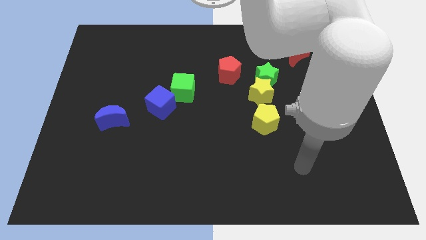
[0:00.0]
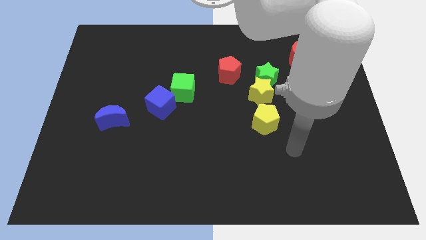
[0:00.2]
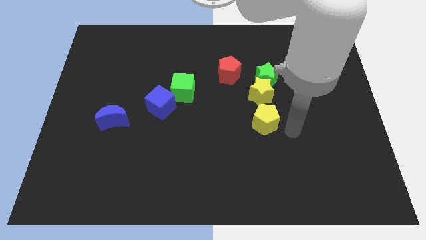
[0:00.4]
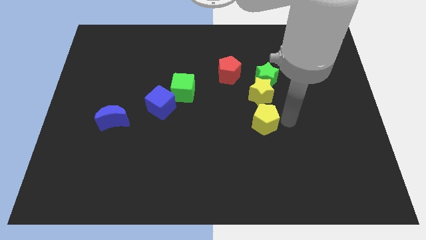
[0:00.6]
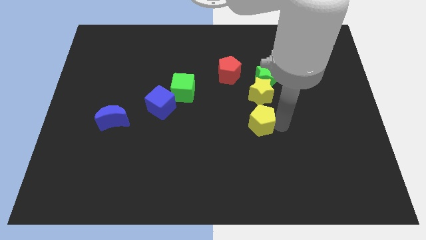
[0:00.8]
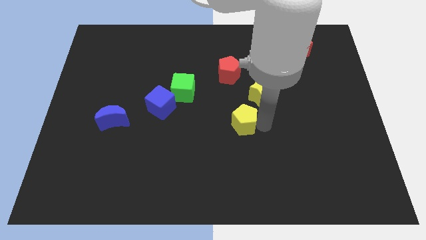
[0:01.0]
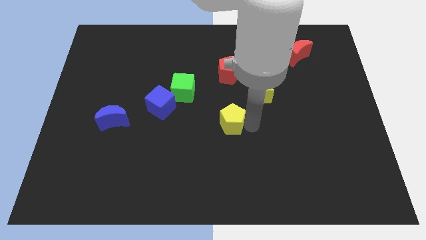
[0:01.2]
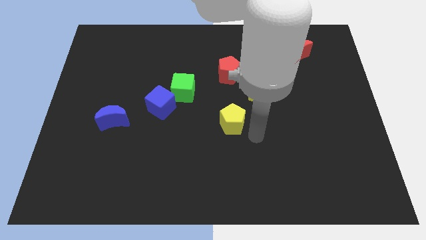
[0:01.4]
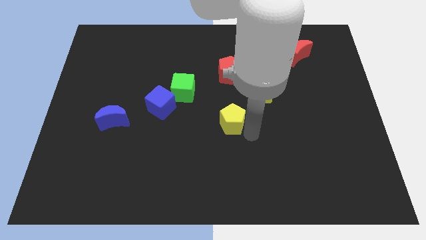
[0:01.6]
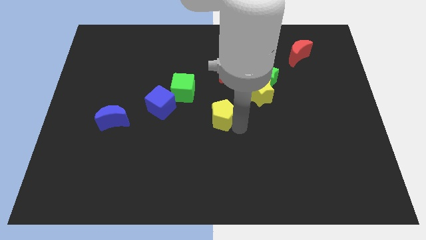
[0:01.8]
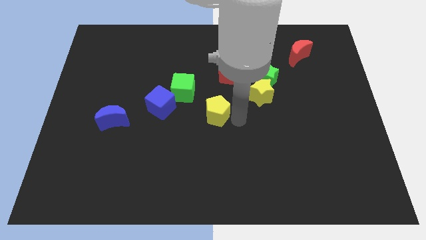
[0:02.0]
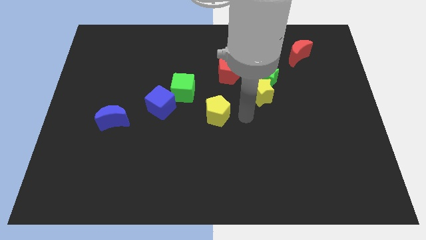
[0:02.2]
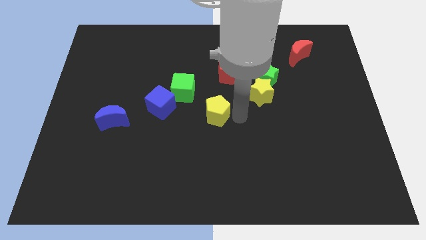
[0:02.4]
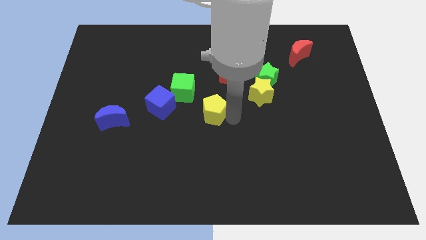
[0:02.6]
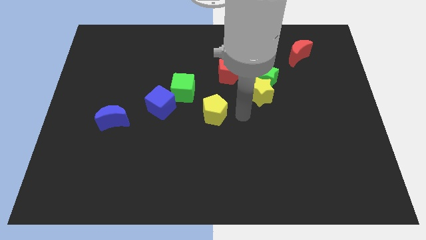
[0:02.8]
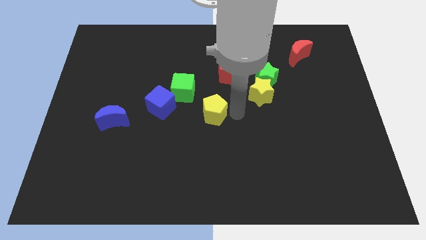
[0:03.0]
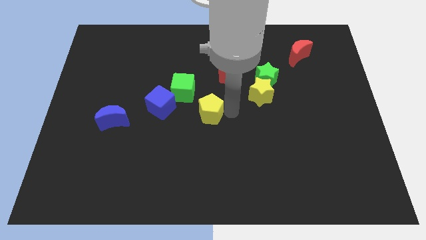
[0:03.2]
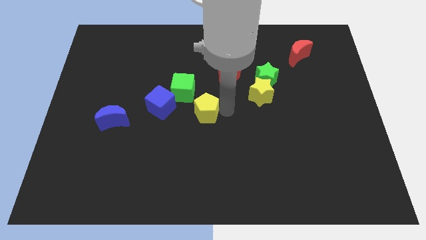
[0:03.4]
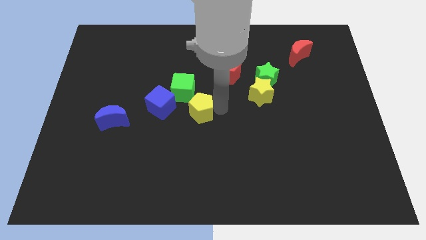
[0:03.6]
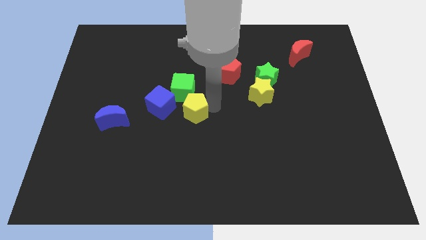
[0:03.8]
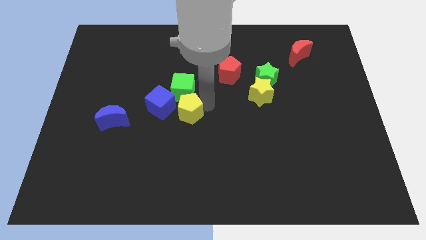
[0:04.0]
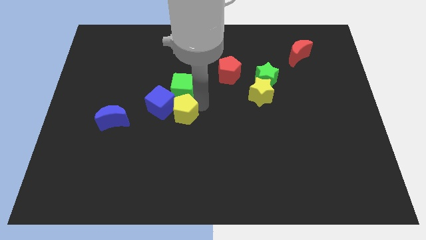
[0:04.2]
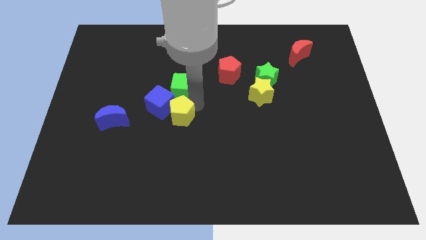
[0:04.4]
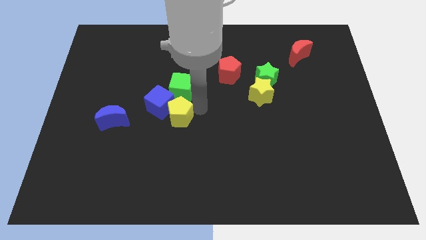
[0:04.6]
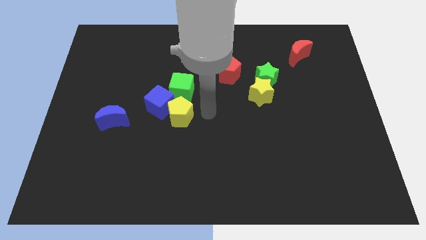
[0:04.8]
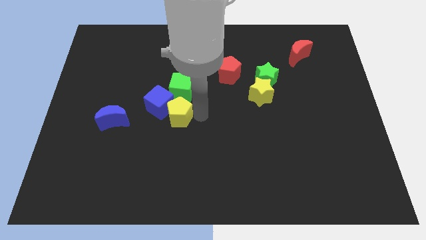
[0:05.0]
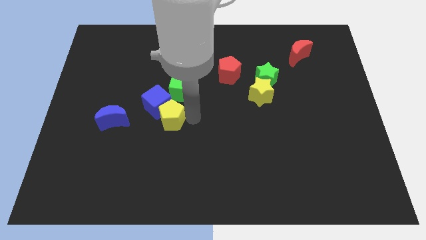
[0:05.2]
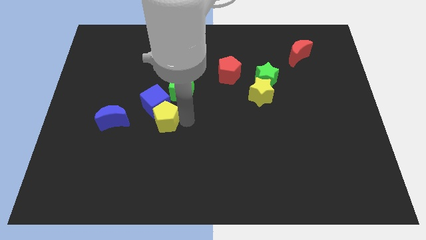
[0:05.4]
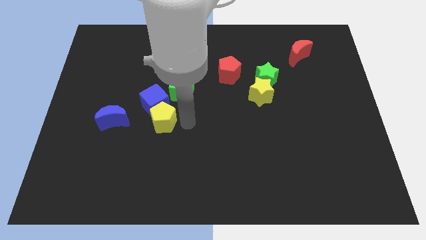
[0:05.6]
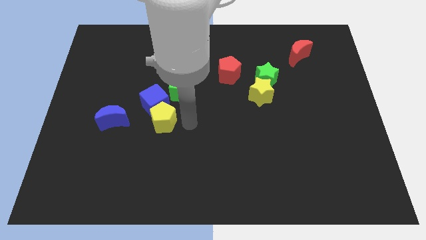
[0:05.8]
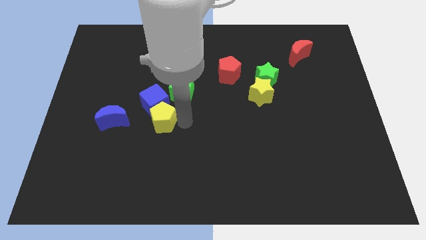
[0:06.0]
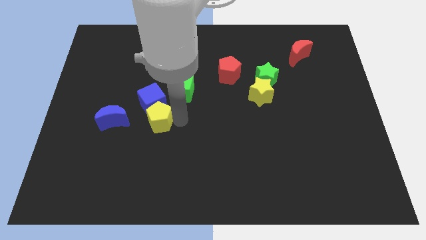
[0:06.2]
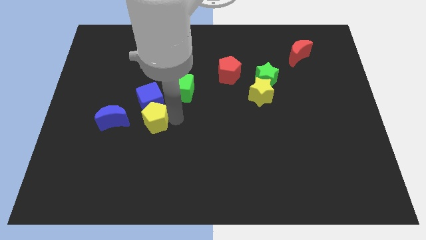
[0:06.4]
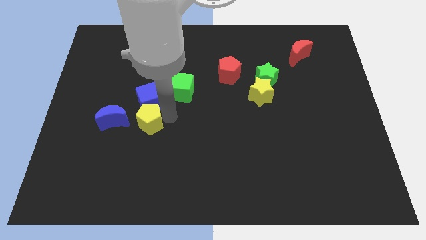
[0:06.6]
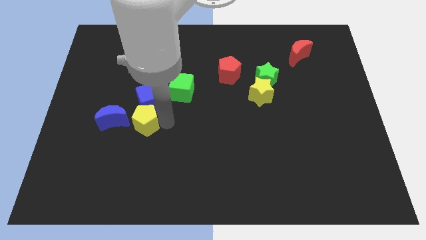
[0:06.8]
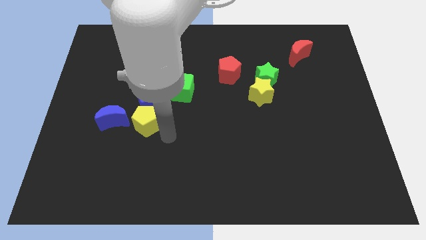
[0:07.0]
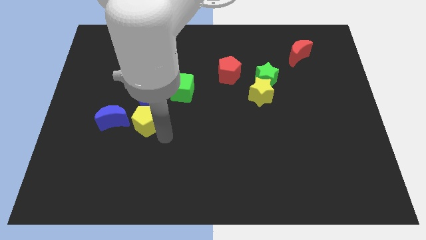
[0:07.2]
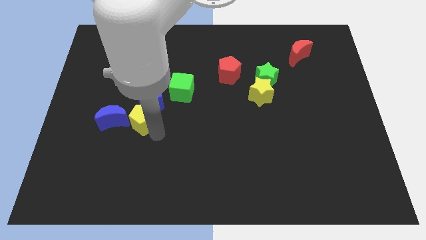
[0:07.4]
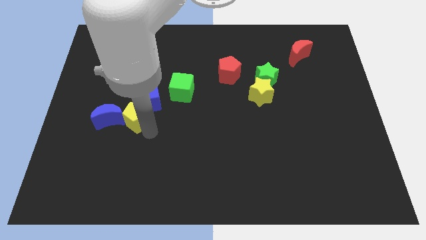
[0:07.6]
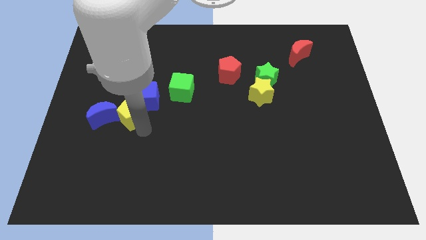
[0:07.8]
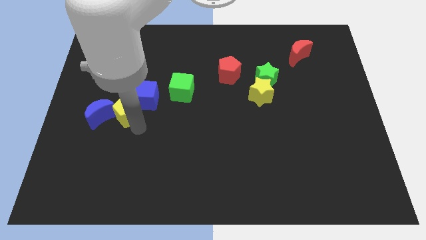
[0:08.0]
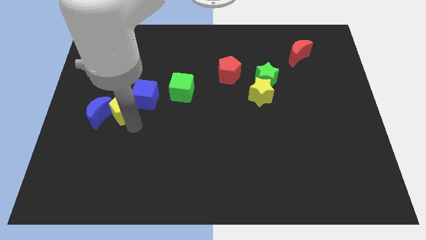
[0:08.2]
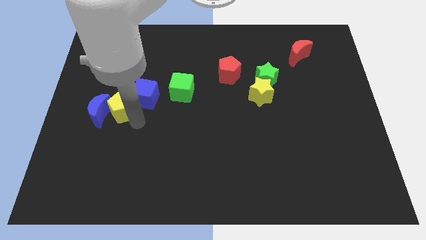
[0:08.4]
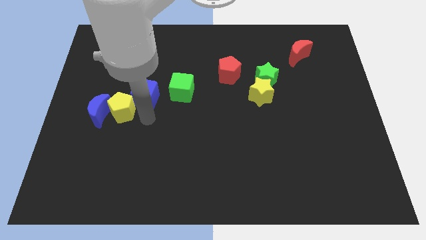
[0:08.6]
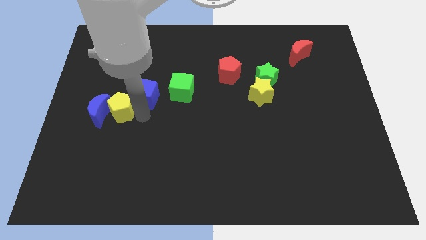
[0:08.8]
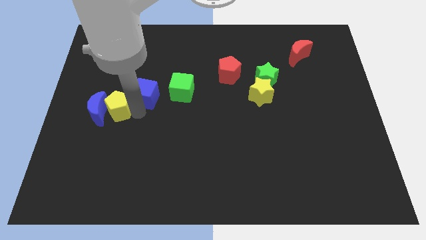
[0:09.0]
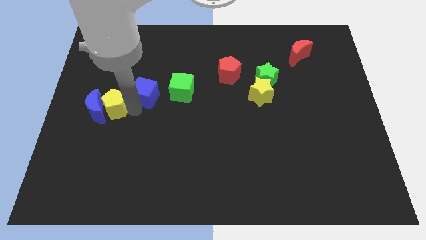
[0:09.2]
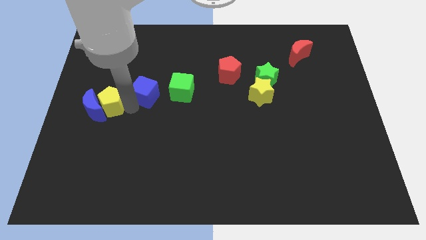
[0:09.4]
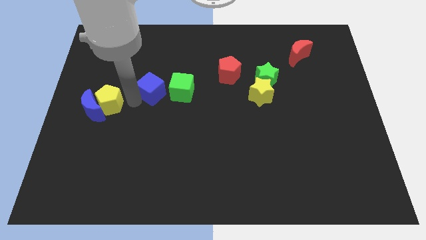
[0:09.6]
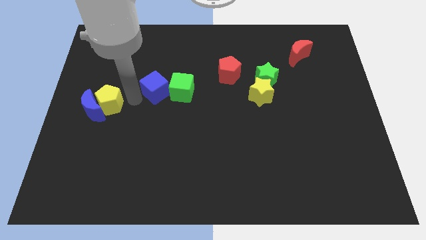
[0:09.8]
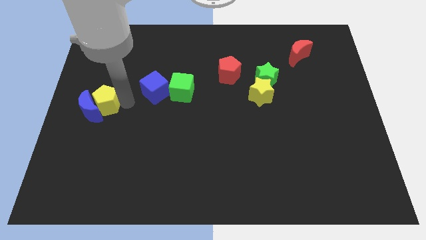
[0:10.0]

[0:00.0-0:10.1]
move the yellow pentagon to the left side

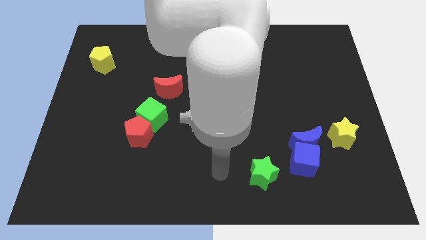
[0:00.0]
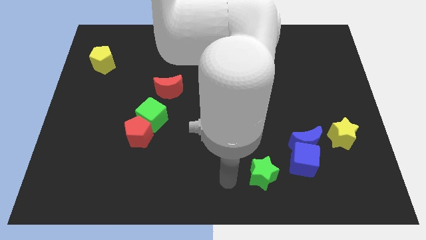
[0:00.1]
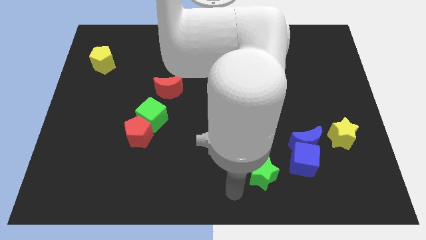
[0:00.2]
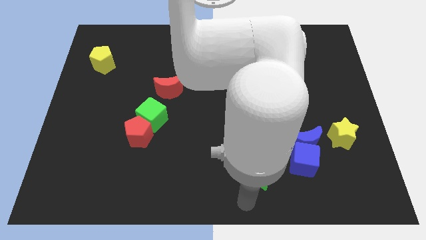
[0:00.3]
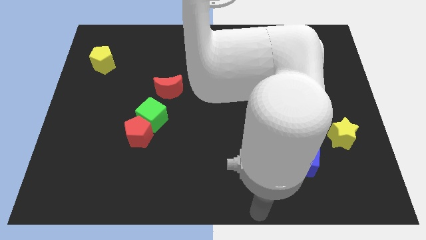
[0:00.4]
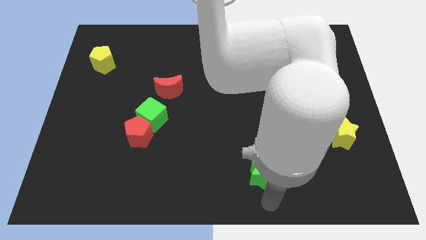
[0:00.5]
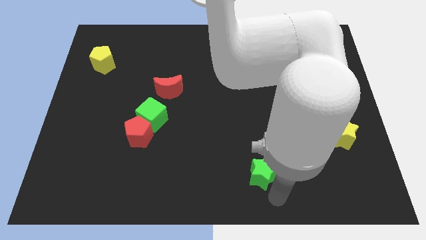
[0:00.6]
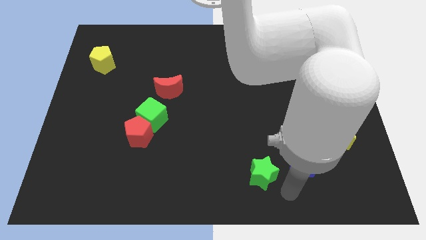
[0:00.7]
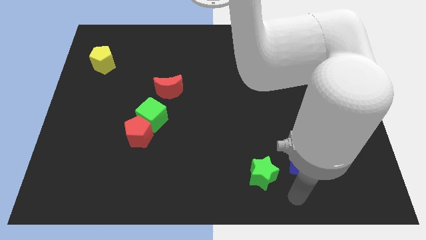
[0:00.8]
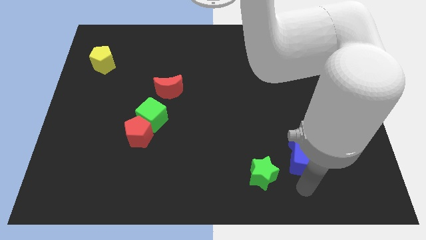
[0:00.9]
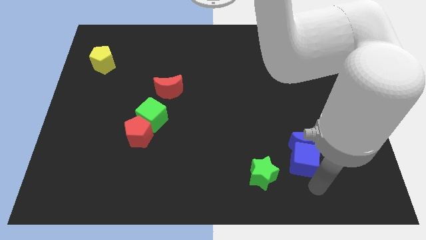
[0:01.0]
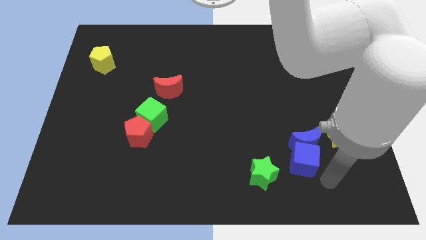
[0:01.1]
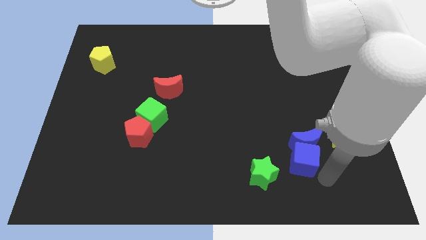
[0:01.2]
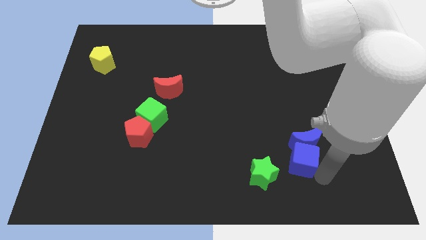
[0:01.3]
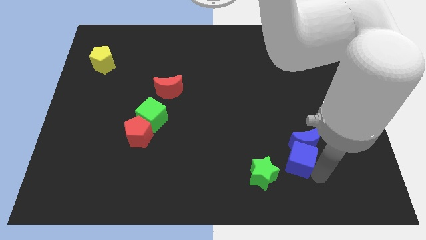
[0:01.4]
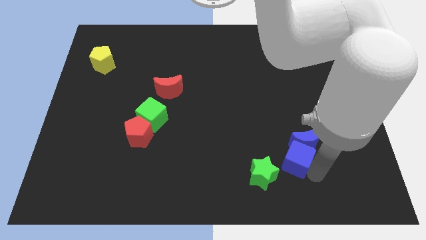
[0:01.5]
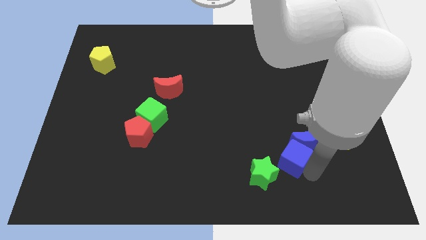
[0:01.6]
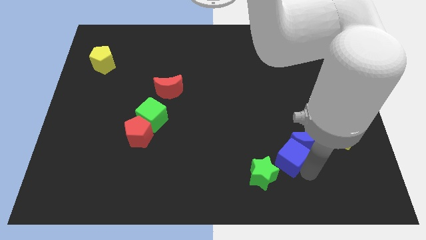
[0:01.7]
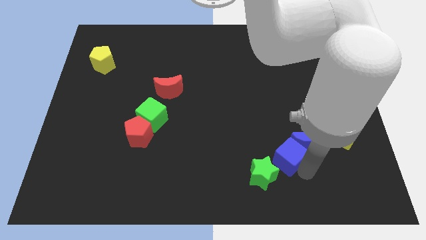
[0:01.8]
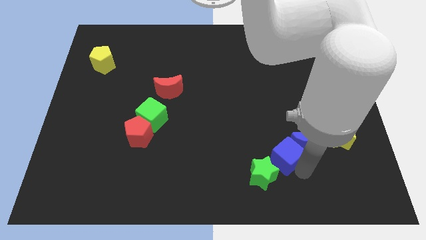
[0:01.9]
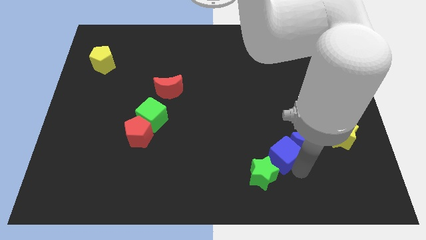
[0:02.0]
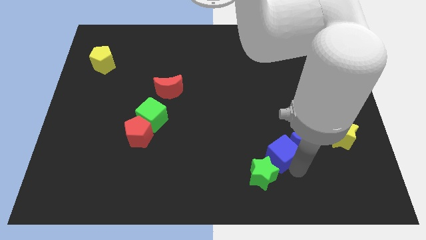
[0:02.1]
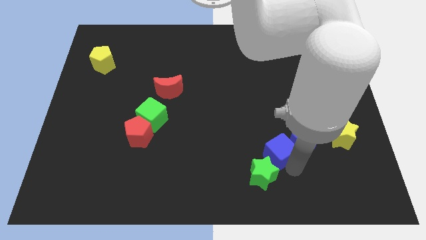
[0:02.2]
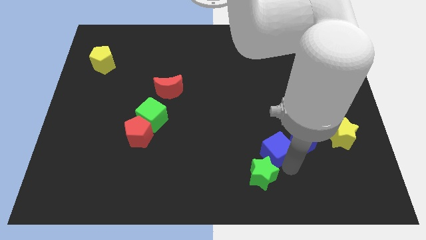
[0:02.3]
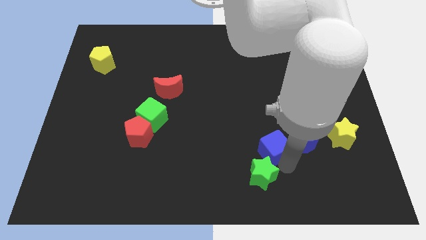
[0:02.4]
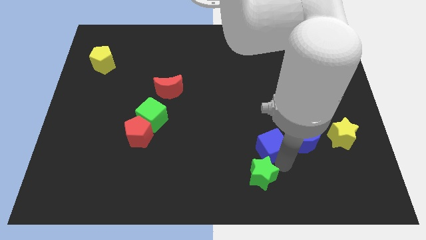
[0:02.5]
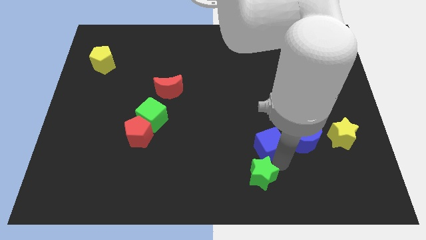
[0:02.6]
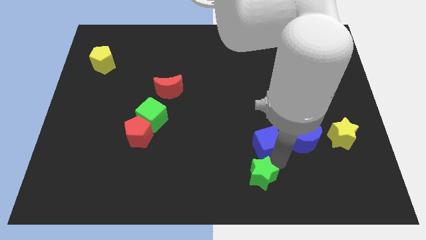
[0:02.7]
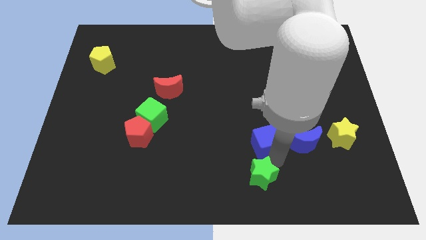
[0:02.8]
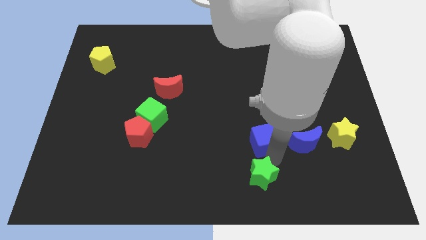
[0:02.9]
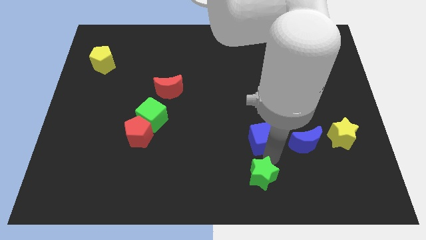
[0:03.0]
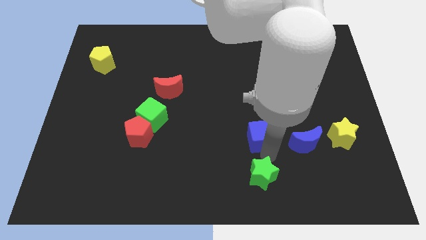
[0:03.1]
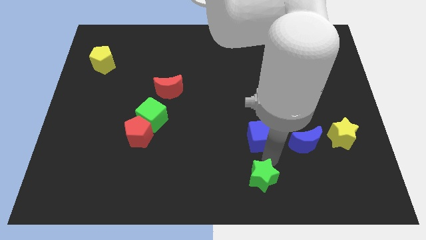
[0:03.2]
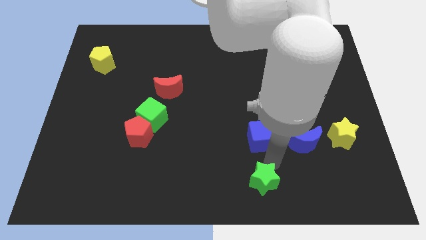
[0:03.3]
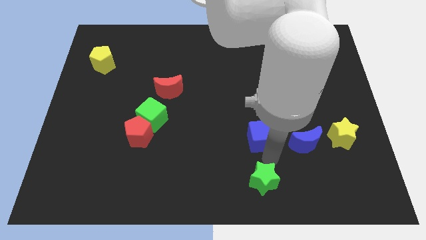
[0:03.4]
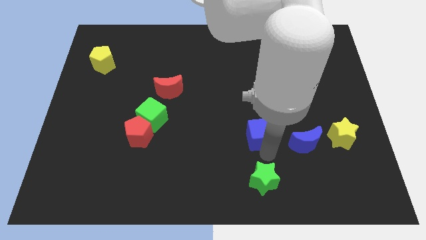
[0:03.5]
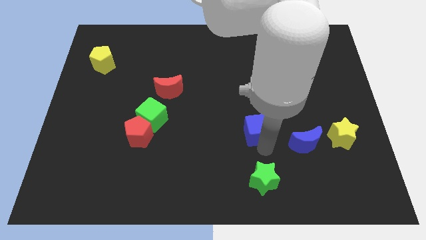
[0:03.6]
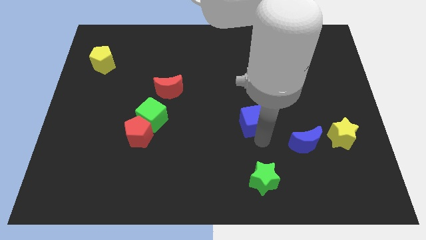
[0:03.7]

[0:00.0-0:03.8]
move the blue cube to the center
